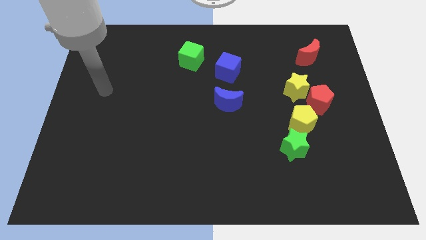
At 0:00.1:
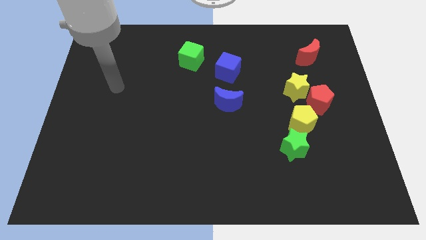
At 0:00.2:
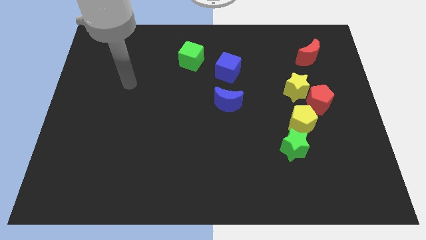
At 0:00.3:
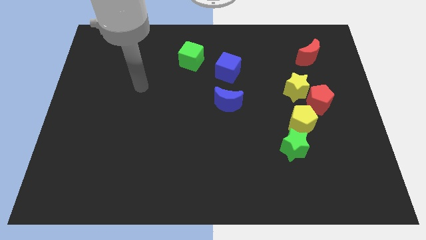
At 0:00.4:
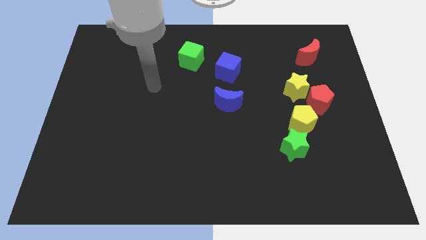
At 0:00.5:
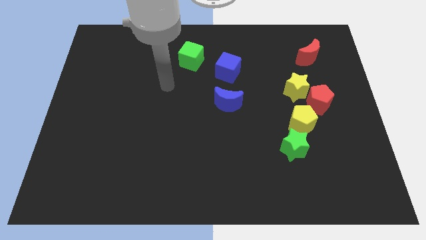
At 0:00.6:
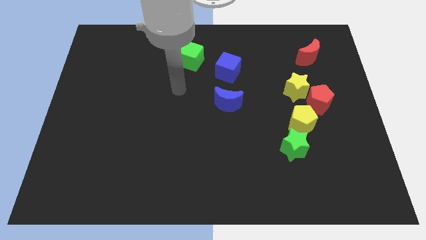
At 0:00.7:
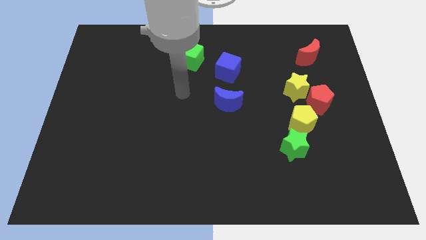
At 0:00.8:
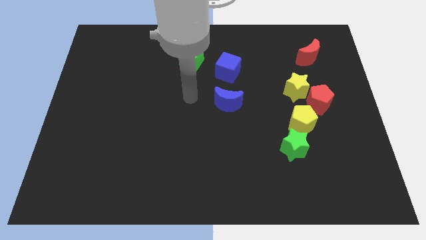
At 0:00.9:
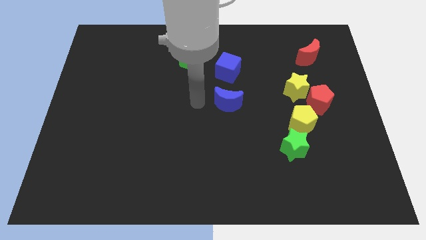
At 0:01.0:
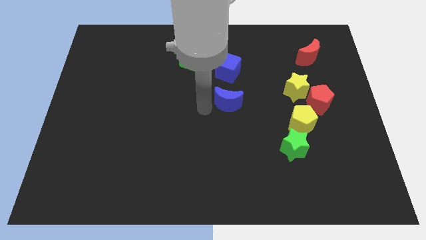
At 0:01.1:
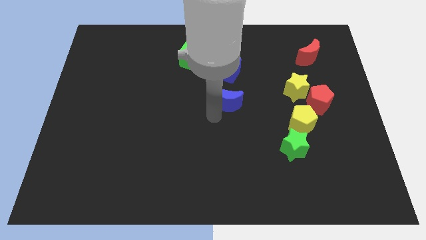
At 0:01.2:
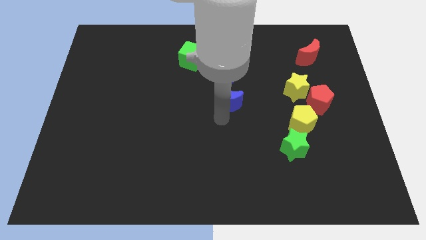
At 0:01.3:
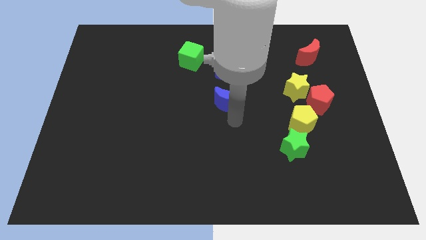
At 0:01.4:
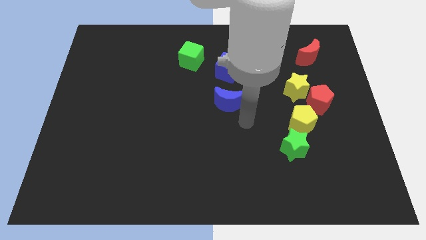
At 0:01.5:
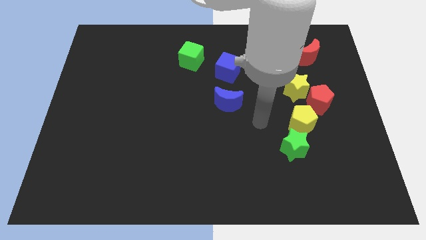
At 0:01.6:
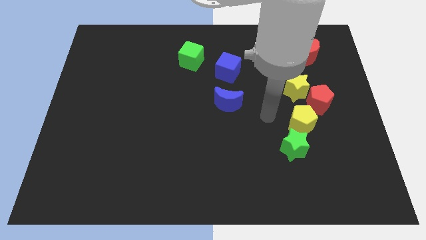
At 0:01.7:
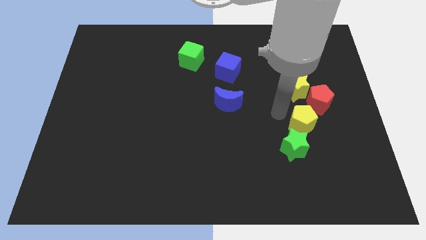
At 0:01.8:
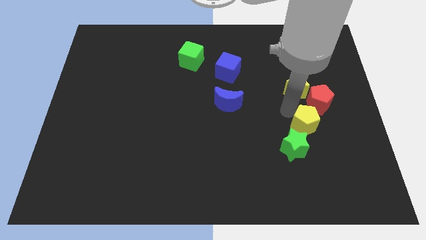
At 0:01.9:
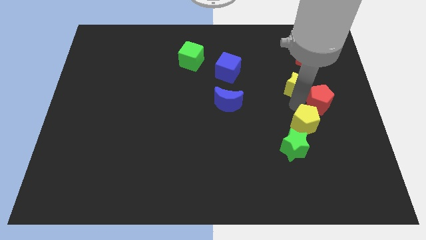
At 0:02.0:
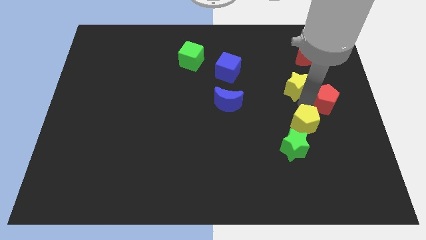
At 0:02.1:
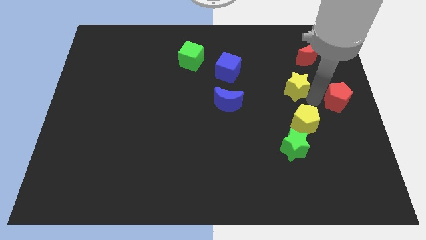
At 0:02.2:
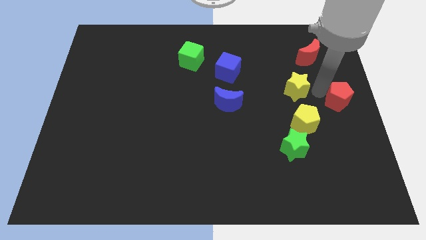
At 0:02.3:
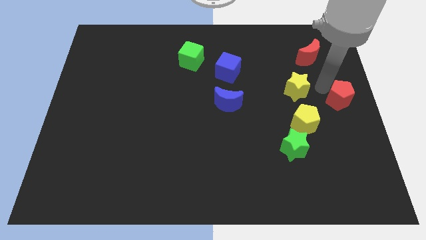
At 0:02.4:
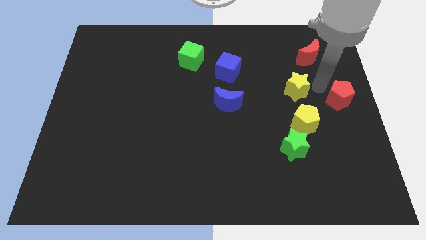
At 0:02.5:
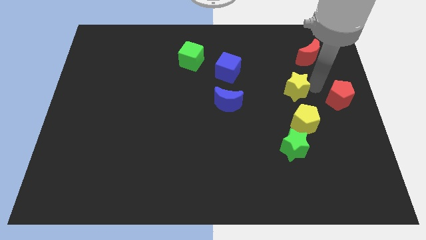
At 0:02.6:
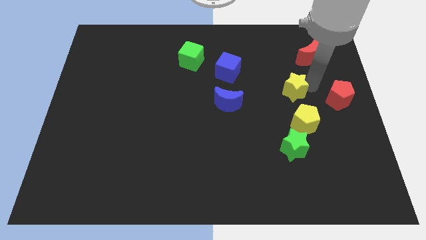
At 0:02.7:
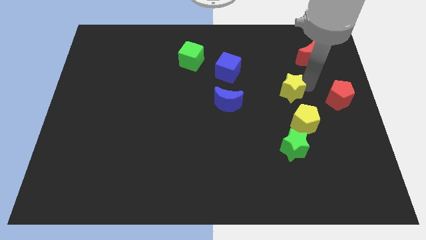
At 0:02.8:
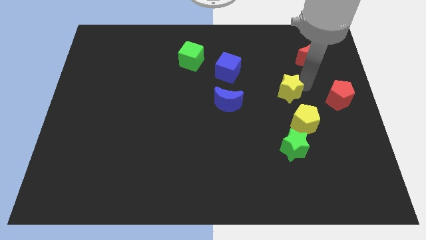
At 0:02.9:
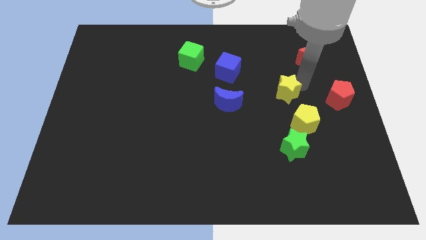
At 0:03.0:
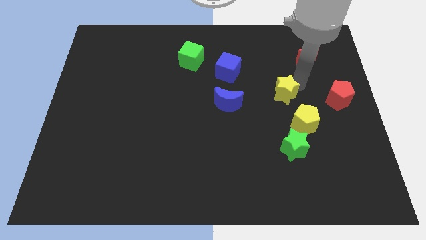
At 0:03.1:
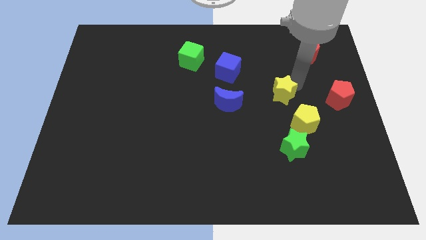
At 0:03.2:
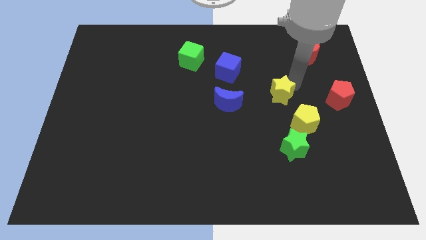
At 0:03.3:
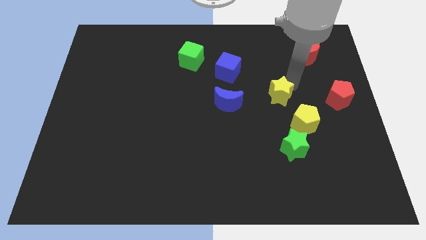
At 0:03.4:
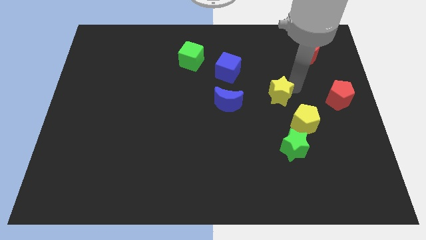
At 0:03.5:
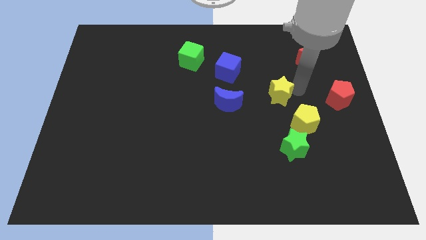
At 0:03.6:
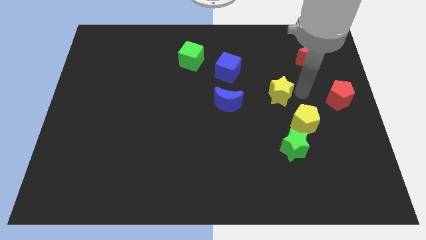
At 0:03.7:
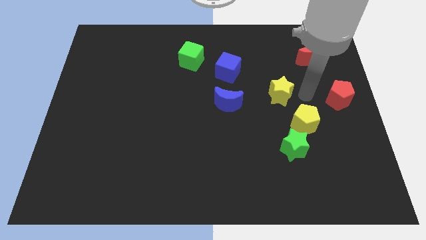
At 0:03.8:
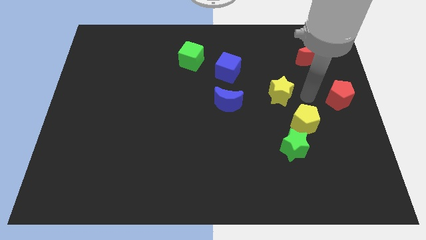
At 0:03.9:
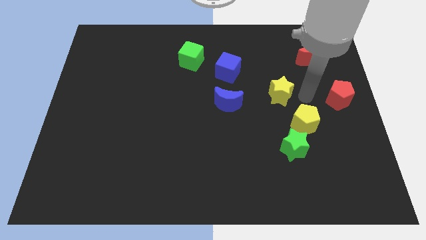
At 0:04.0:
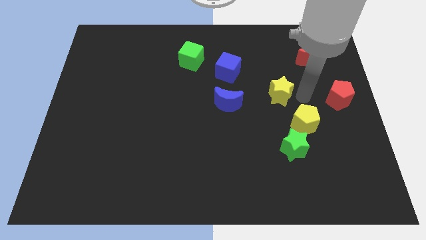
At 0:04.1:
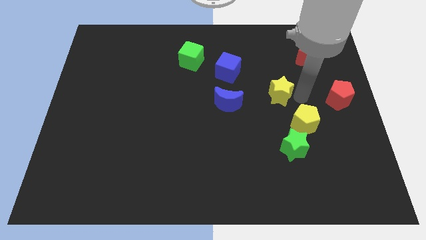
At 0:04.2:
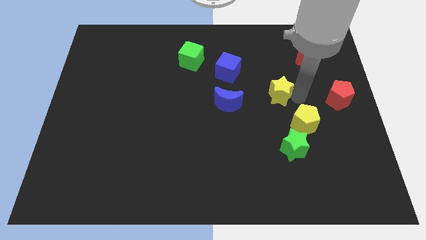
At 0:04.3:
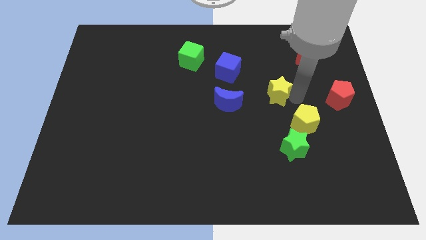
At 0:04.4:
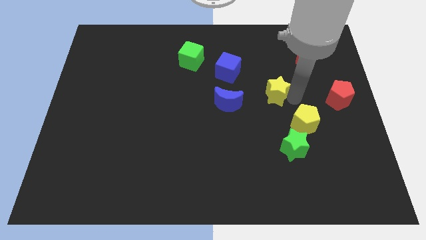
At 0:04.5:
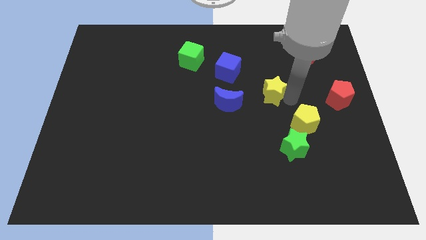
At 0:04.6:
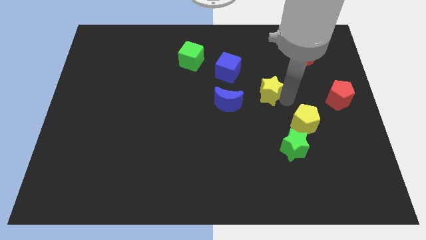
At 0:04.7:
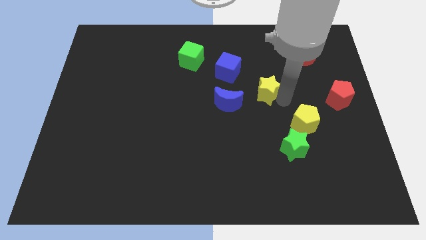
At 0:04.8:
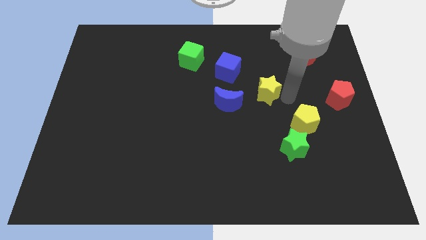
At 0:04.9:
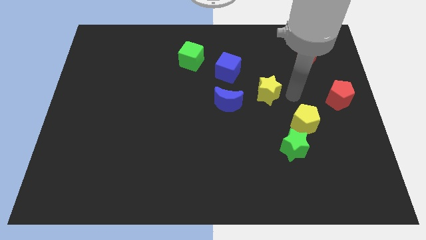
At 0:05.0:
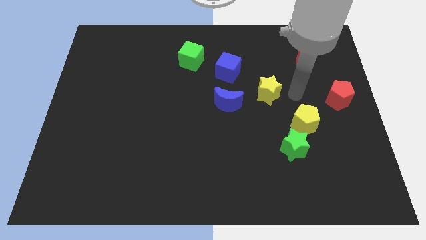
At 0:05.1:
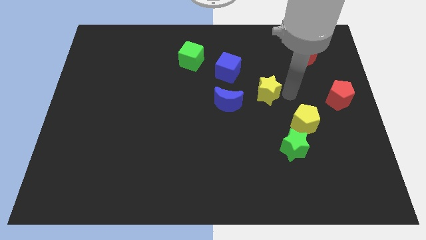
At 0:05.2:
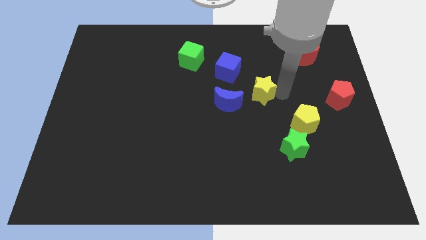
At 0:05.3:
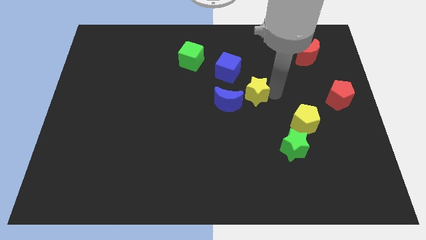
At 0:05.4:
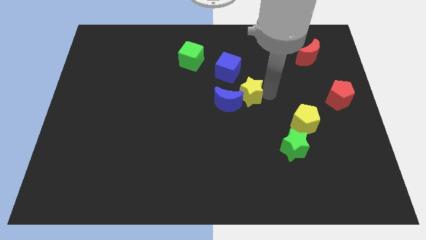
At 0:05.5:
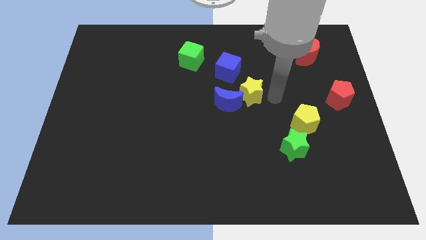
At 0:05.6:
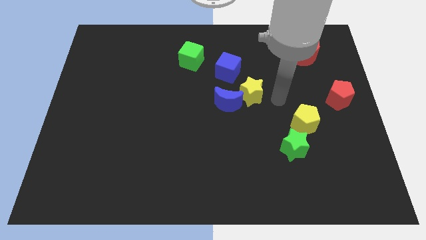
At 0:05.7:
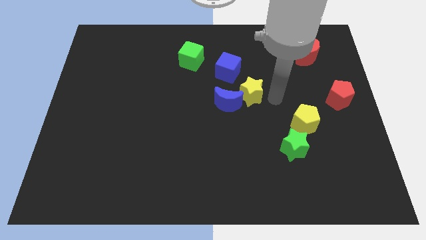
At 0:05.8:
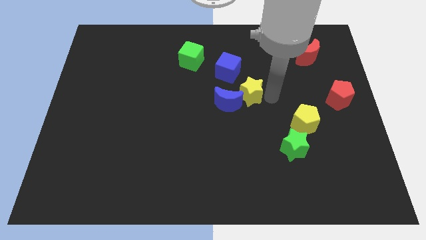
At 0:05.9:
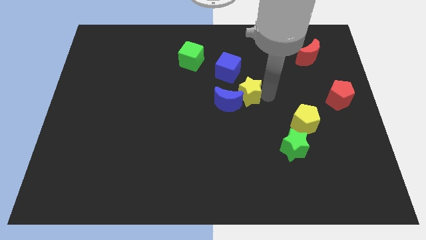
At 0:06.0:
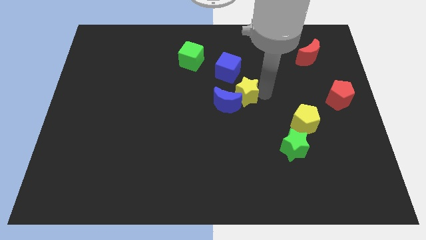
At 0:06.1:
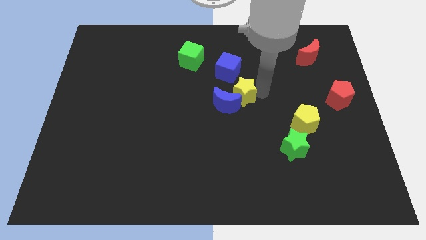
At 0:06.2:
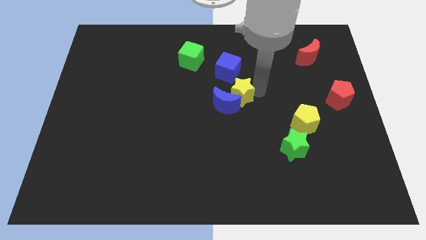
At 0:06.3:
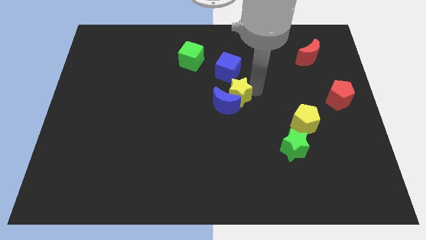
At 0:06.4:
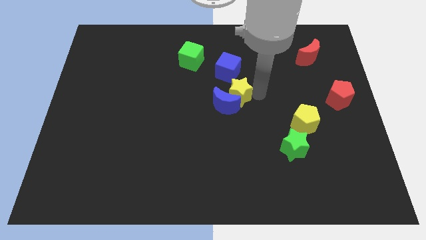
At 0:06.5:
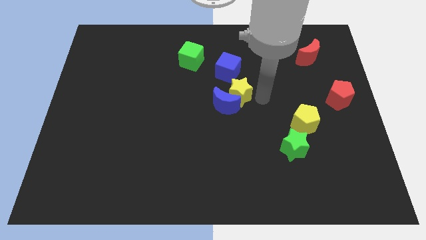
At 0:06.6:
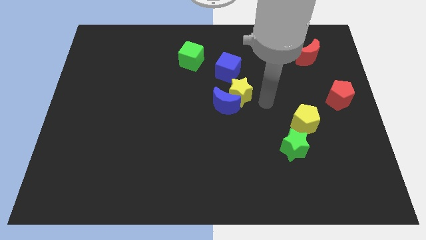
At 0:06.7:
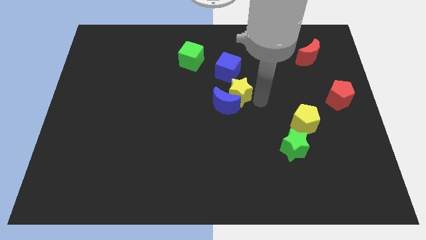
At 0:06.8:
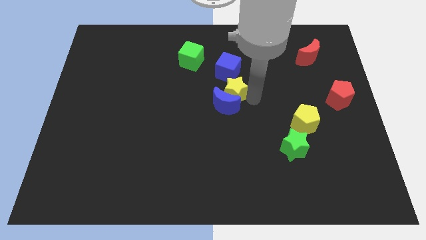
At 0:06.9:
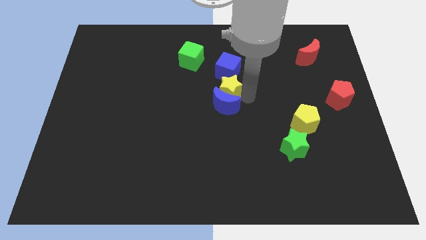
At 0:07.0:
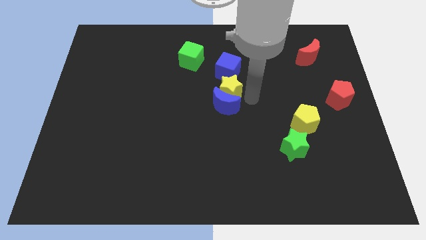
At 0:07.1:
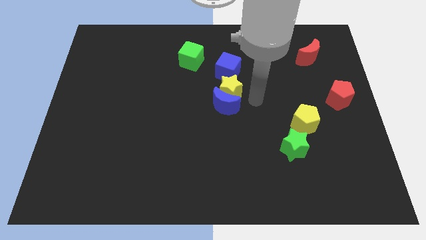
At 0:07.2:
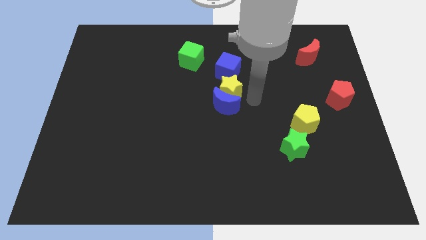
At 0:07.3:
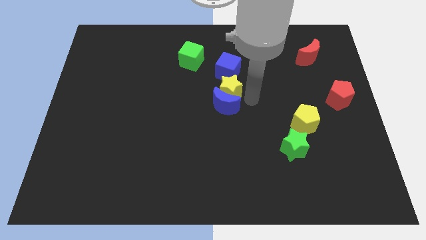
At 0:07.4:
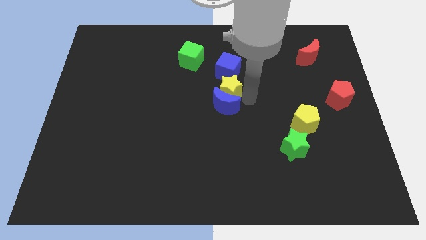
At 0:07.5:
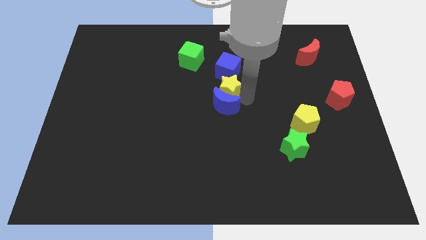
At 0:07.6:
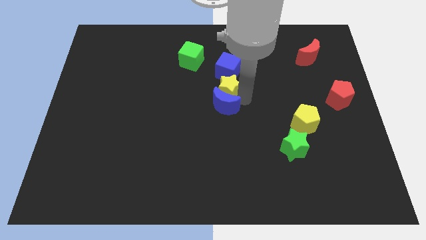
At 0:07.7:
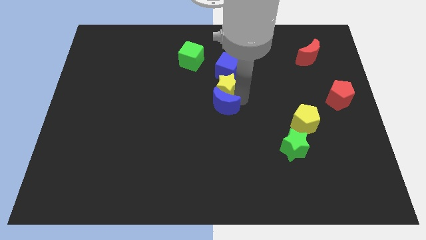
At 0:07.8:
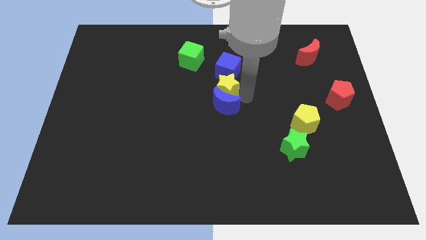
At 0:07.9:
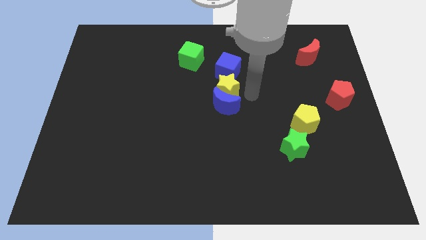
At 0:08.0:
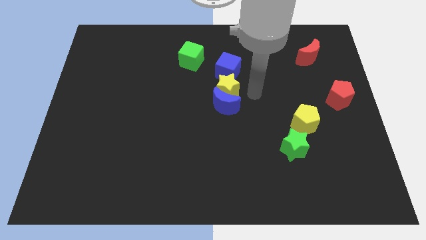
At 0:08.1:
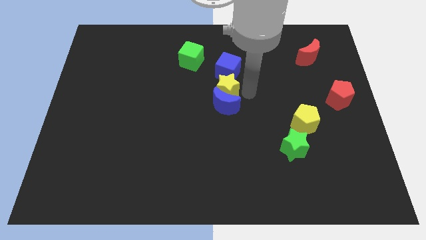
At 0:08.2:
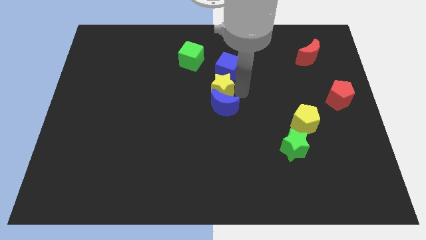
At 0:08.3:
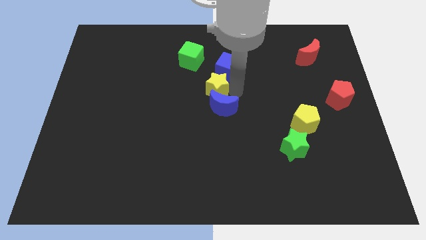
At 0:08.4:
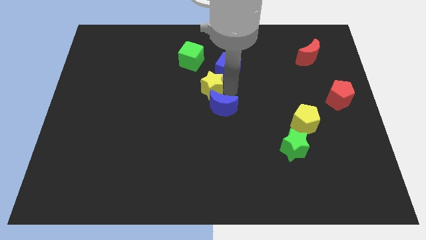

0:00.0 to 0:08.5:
move the yellow star left
